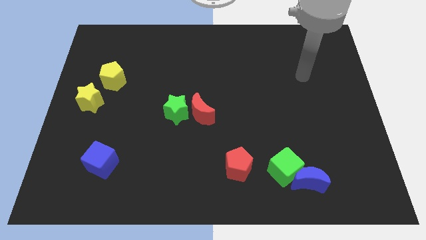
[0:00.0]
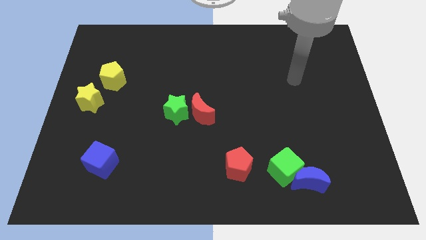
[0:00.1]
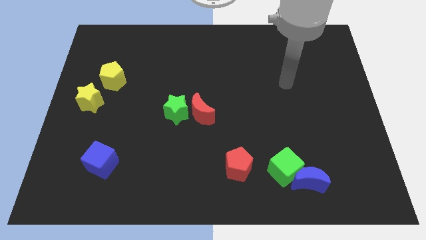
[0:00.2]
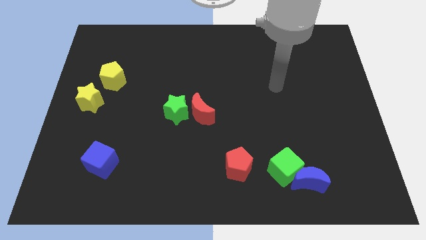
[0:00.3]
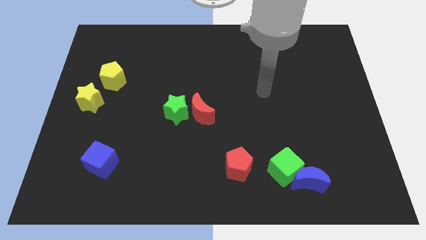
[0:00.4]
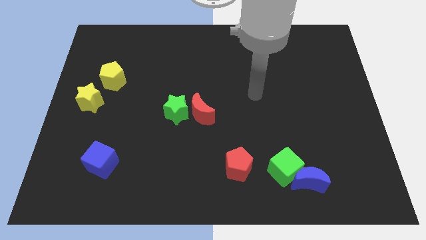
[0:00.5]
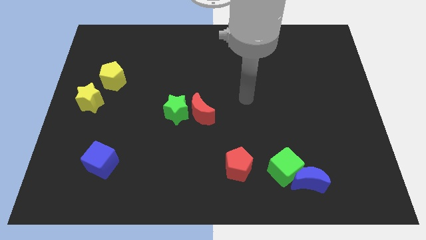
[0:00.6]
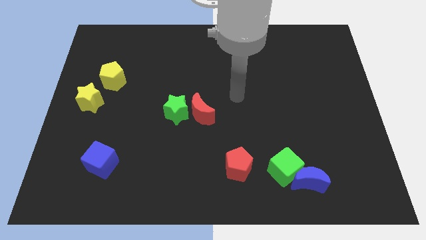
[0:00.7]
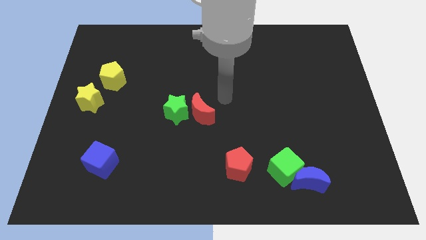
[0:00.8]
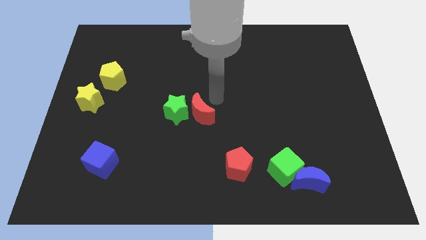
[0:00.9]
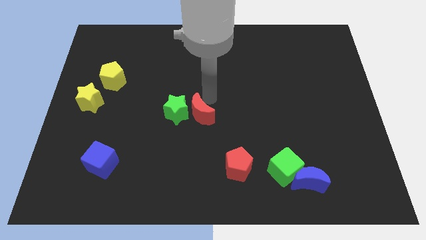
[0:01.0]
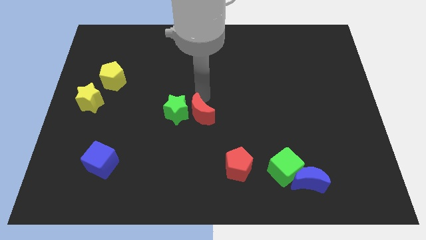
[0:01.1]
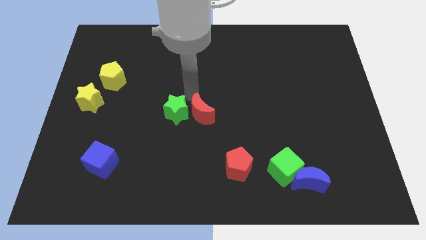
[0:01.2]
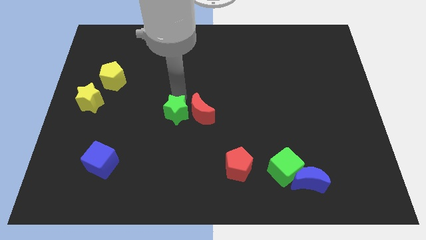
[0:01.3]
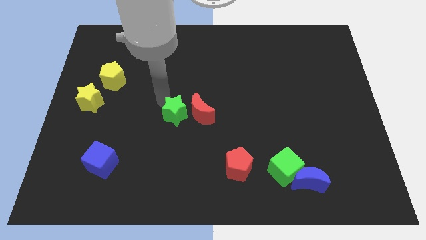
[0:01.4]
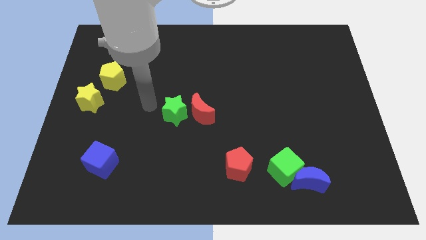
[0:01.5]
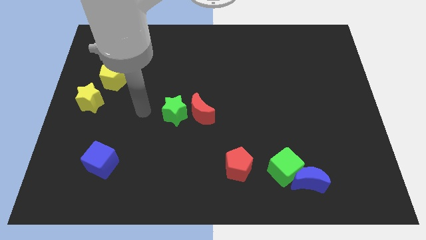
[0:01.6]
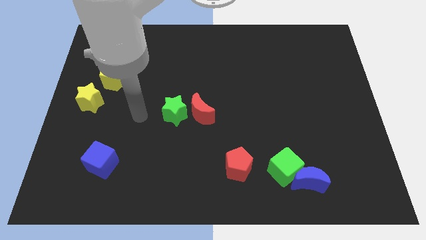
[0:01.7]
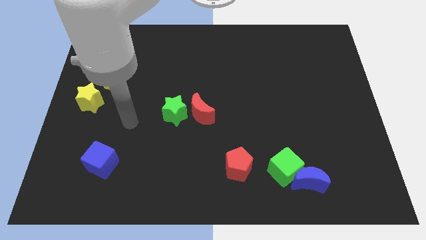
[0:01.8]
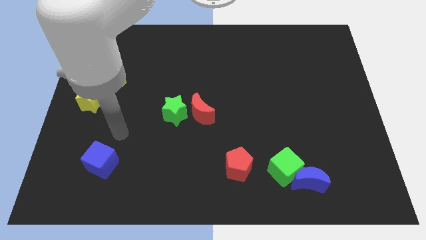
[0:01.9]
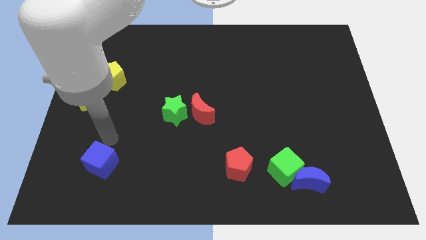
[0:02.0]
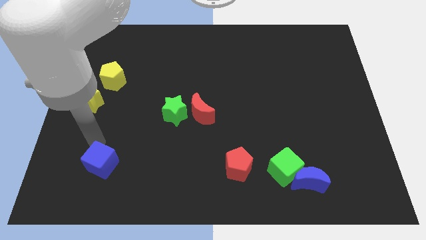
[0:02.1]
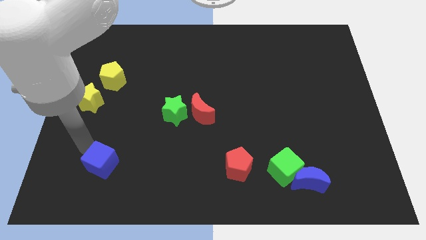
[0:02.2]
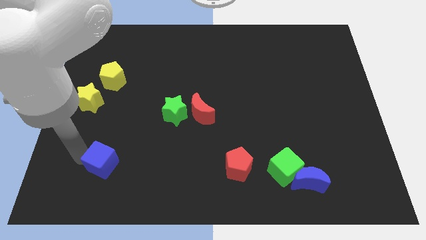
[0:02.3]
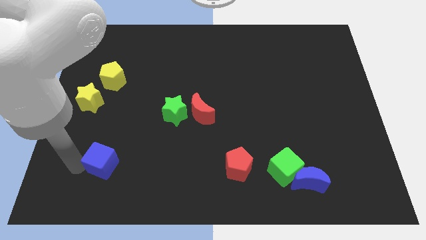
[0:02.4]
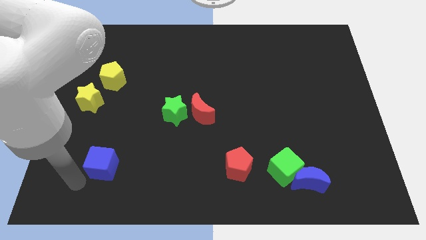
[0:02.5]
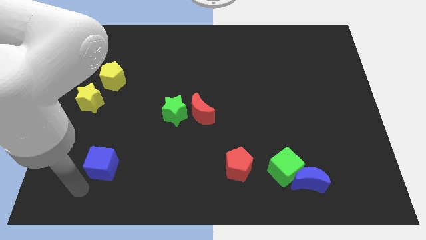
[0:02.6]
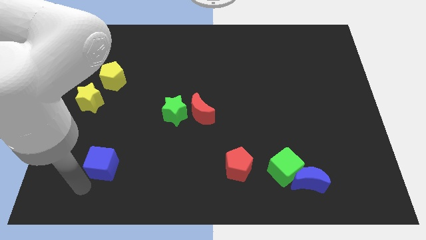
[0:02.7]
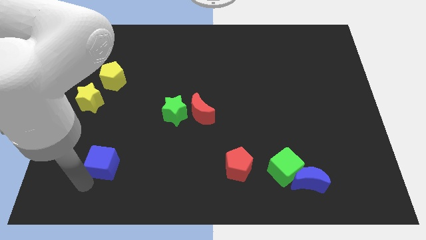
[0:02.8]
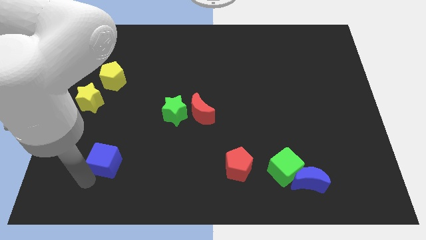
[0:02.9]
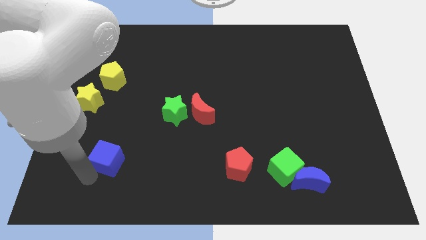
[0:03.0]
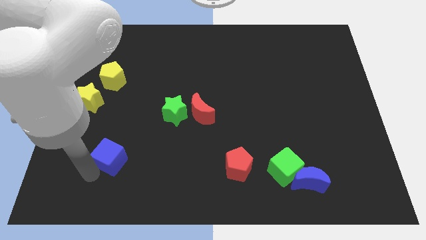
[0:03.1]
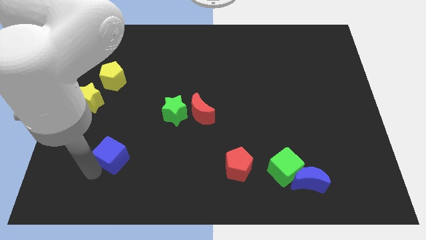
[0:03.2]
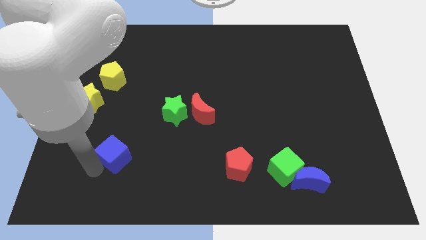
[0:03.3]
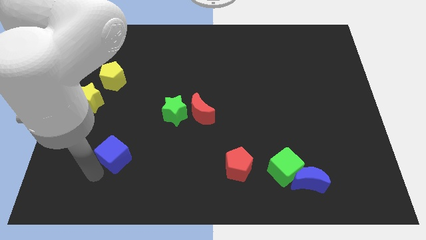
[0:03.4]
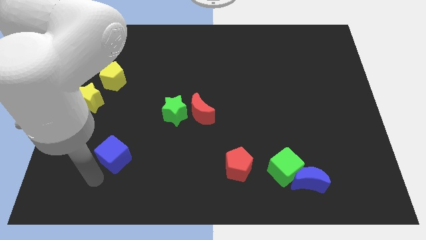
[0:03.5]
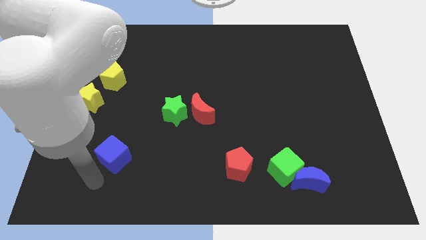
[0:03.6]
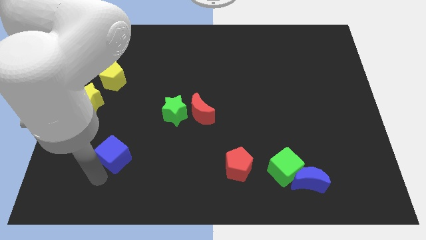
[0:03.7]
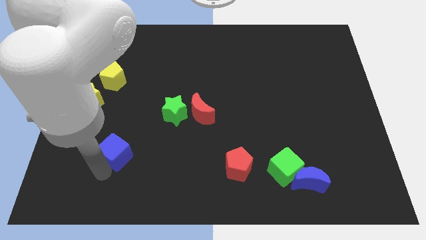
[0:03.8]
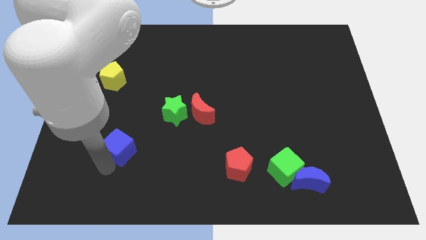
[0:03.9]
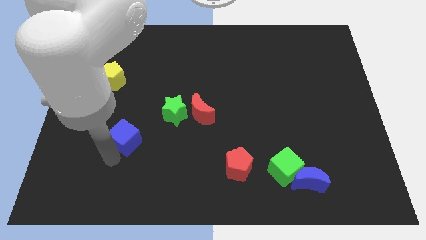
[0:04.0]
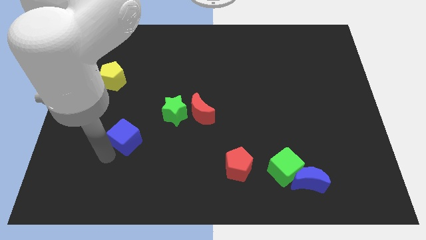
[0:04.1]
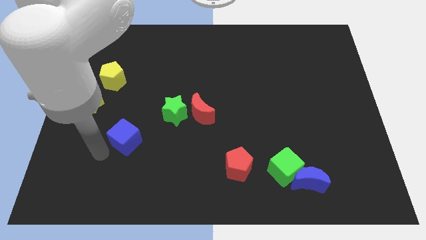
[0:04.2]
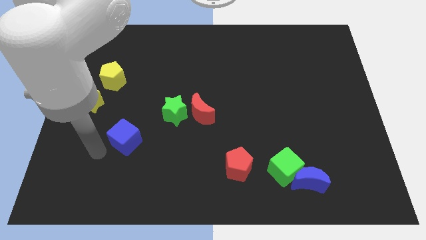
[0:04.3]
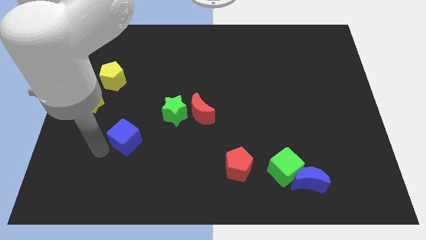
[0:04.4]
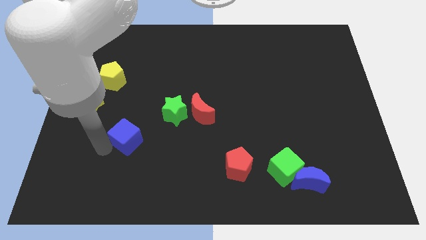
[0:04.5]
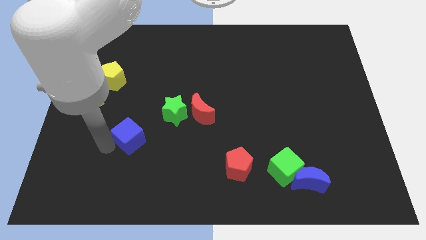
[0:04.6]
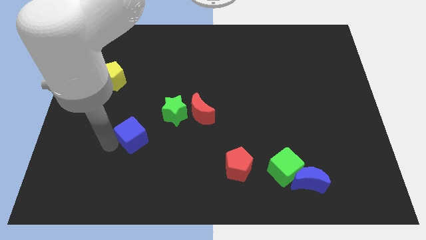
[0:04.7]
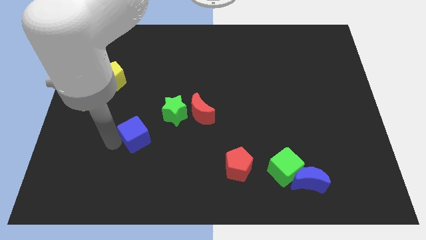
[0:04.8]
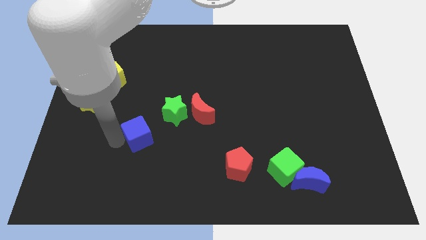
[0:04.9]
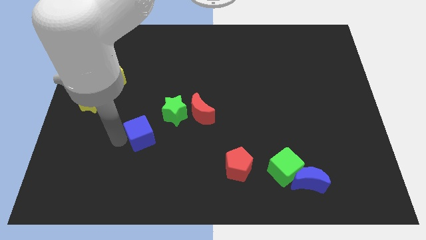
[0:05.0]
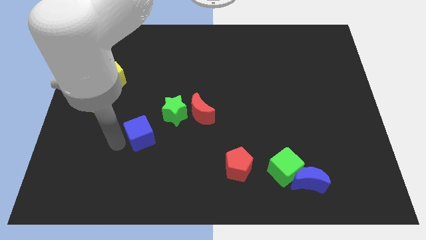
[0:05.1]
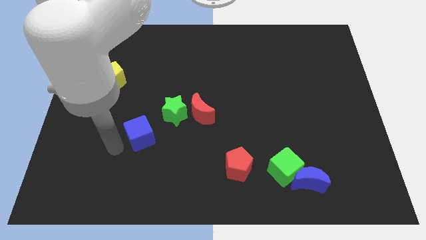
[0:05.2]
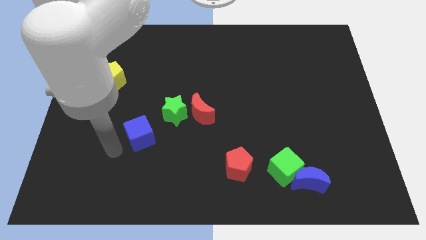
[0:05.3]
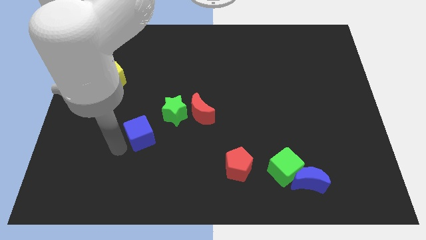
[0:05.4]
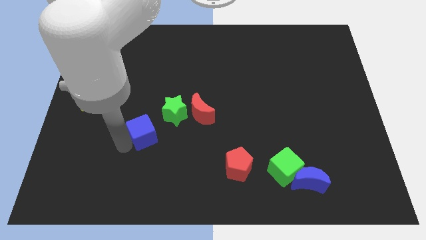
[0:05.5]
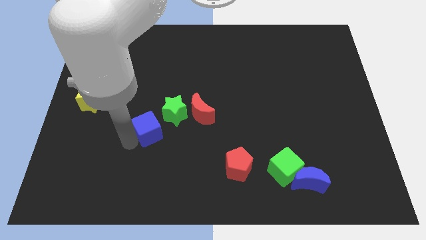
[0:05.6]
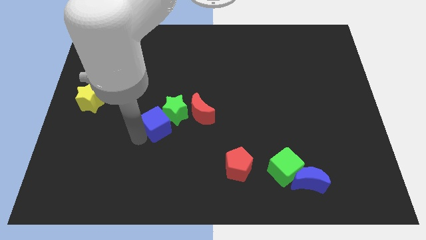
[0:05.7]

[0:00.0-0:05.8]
put the blue cube close to the green star

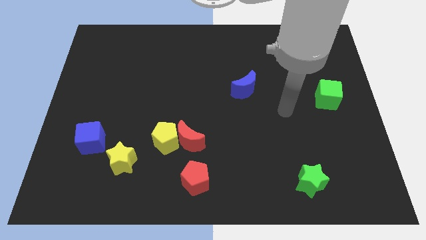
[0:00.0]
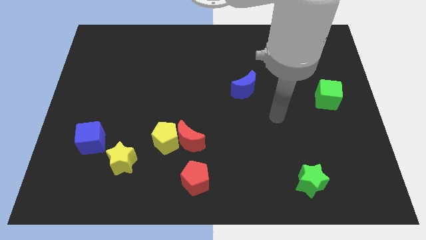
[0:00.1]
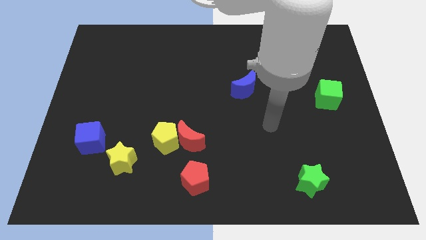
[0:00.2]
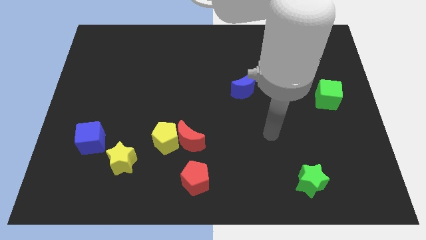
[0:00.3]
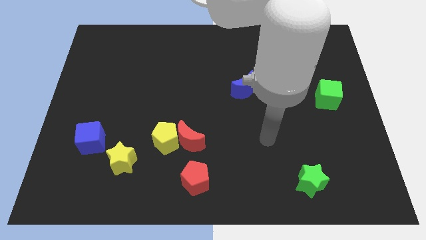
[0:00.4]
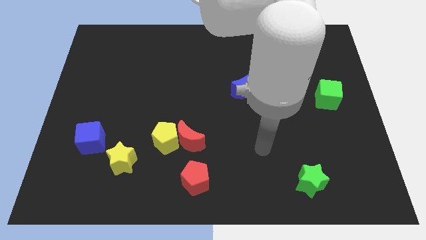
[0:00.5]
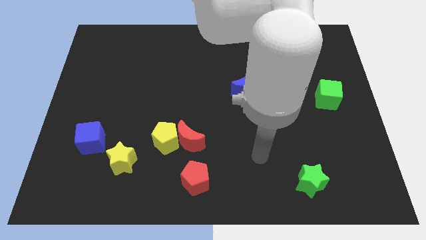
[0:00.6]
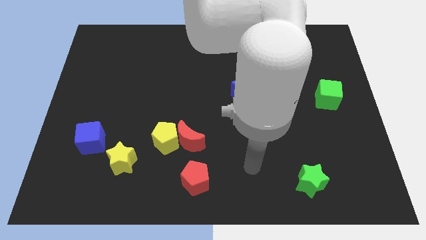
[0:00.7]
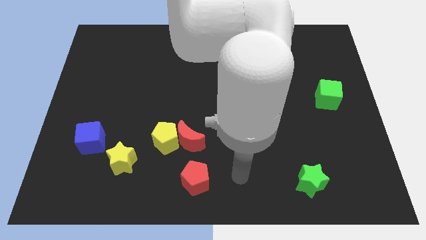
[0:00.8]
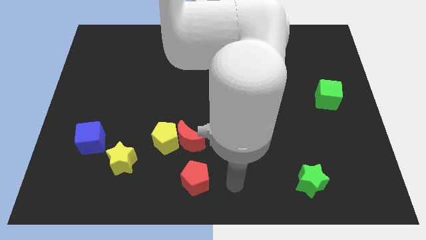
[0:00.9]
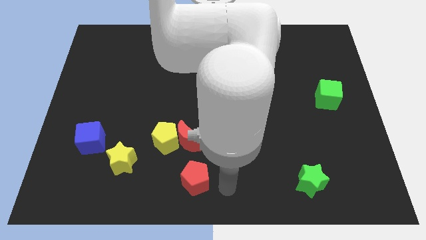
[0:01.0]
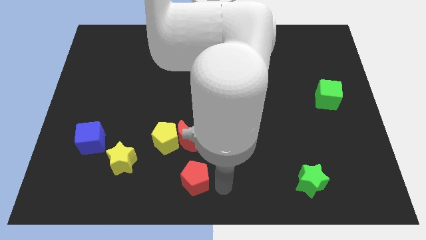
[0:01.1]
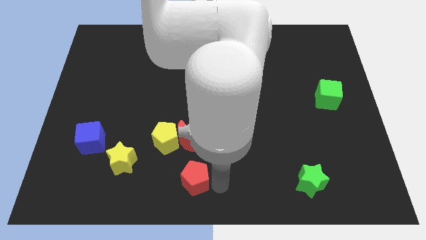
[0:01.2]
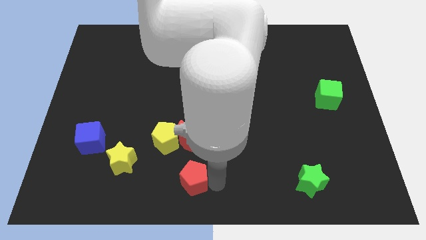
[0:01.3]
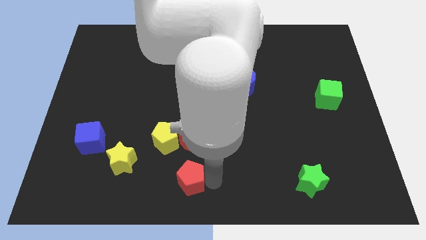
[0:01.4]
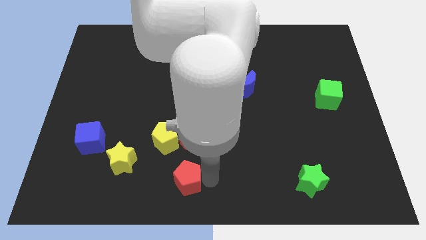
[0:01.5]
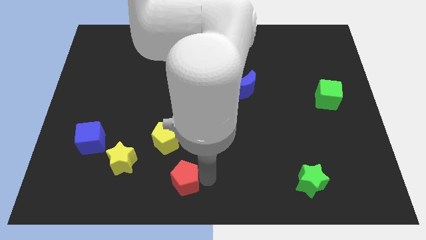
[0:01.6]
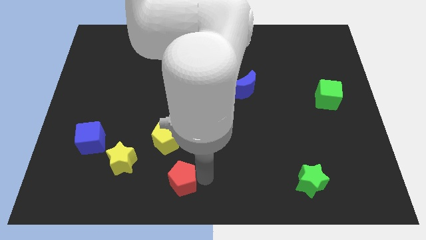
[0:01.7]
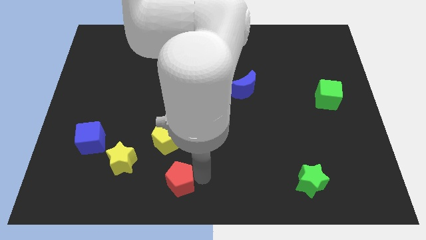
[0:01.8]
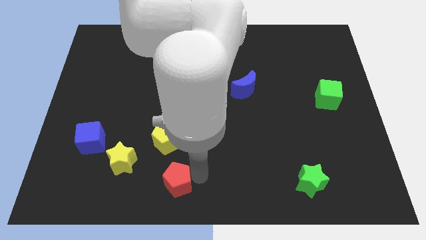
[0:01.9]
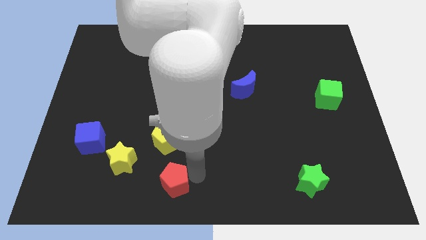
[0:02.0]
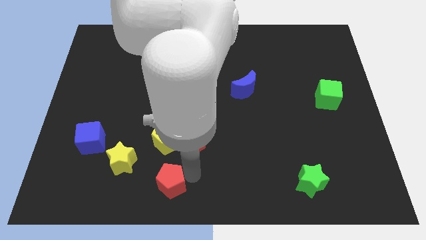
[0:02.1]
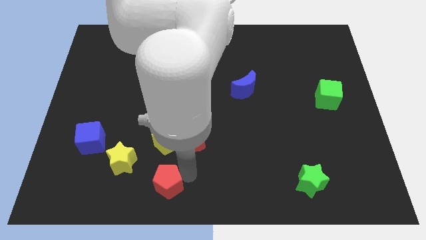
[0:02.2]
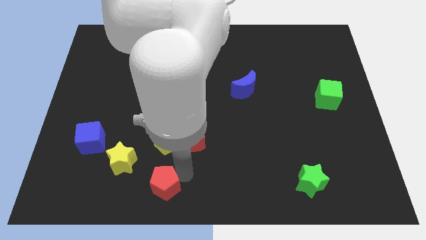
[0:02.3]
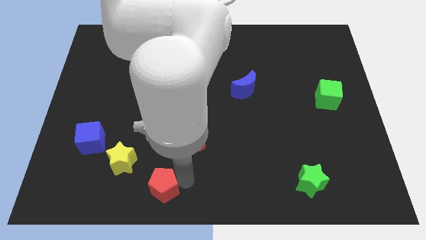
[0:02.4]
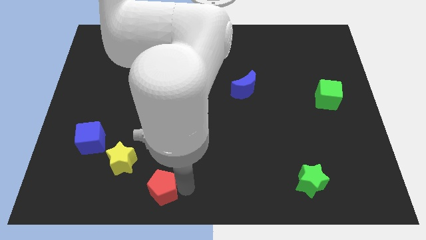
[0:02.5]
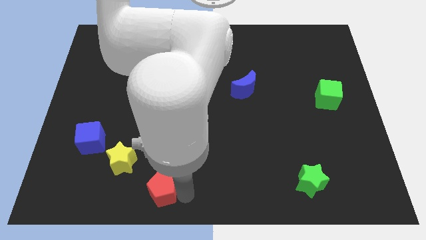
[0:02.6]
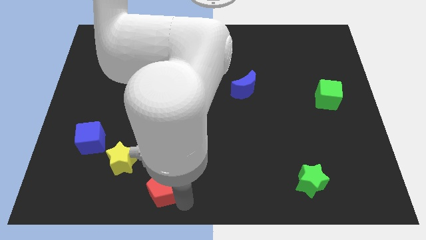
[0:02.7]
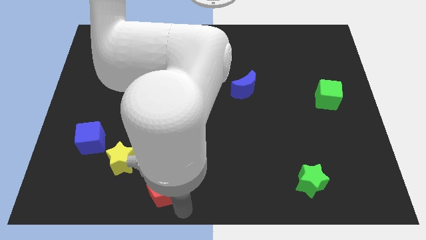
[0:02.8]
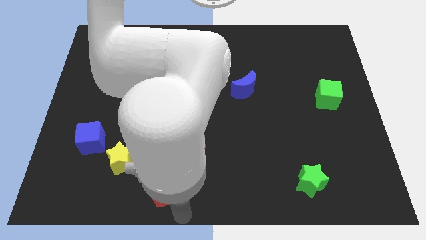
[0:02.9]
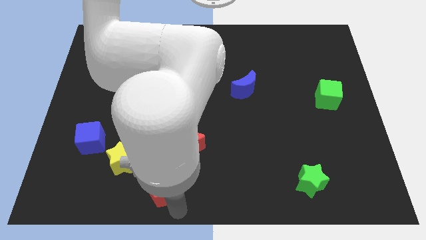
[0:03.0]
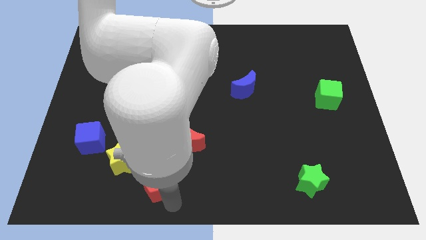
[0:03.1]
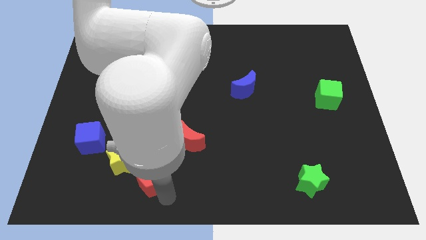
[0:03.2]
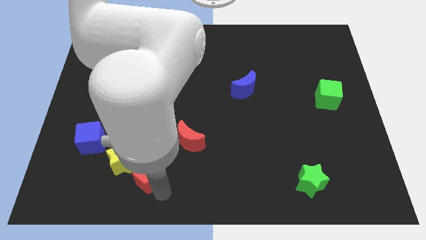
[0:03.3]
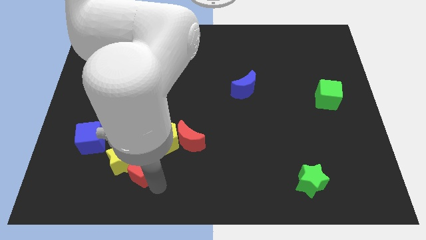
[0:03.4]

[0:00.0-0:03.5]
push the red pentagon towards the yellow star
